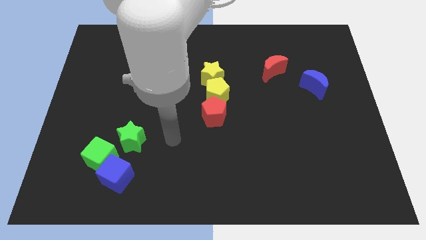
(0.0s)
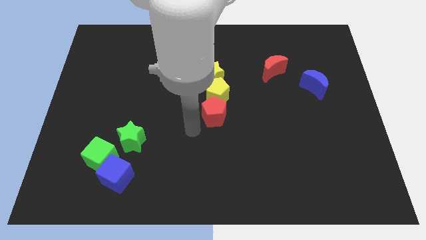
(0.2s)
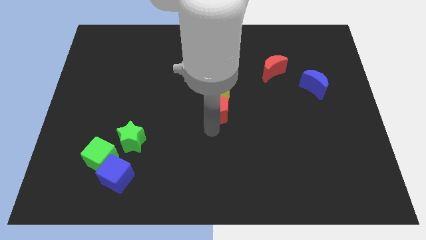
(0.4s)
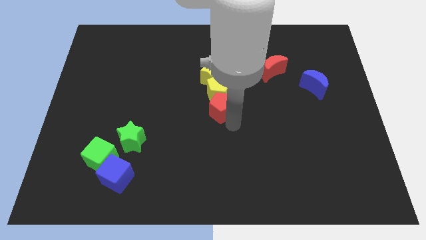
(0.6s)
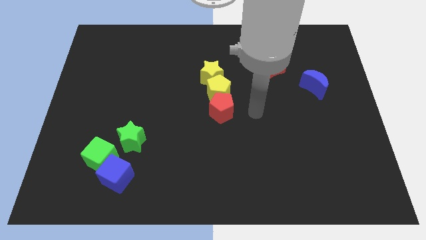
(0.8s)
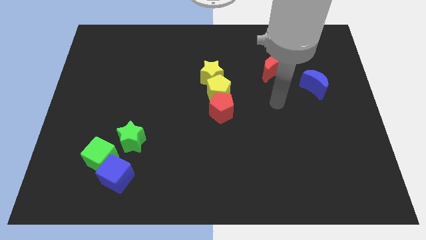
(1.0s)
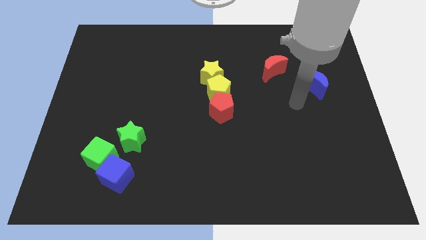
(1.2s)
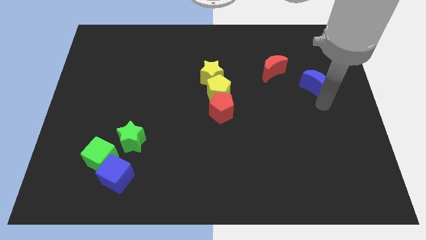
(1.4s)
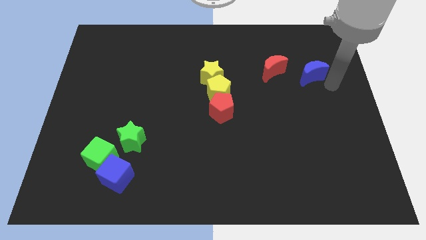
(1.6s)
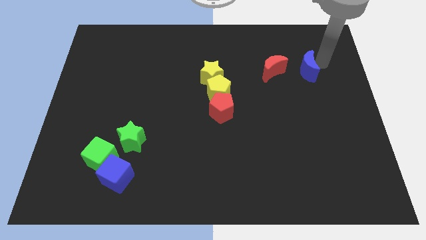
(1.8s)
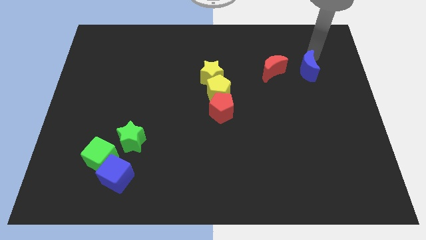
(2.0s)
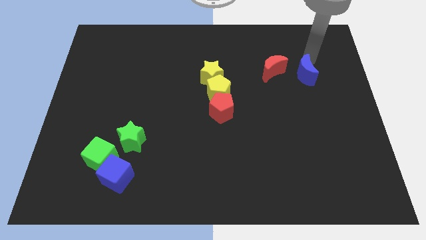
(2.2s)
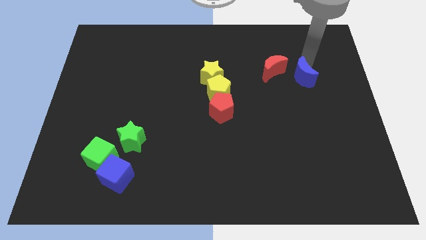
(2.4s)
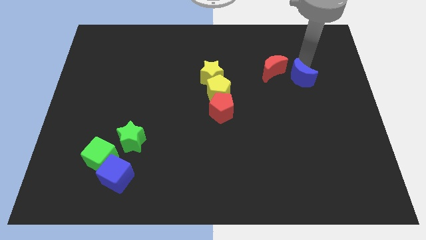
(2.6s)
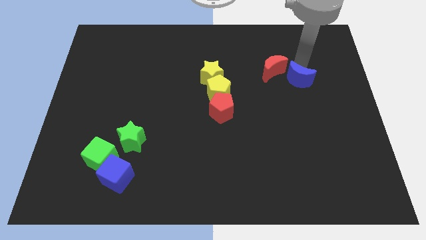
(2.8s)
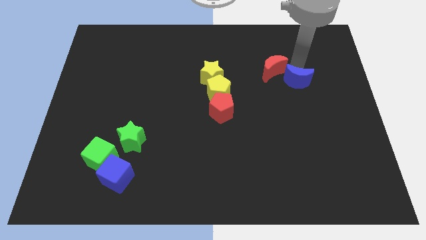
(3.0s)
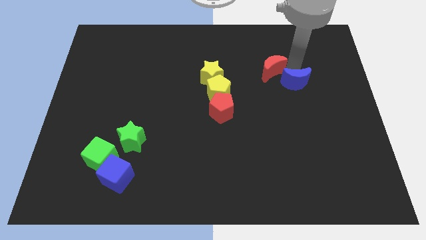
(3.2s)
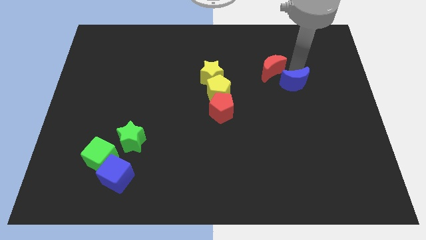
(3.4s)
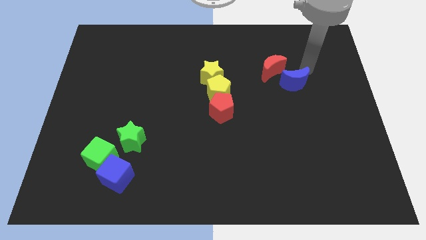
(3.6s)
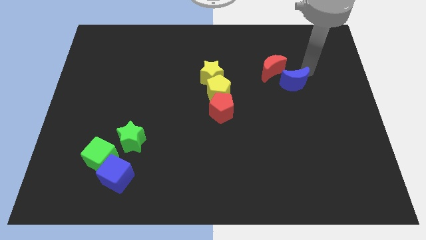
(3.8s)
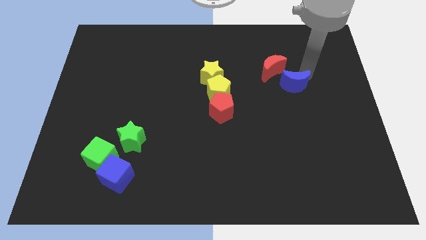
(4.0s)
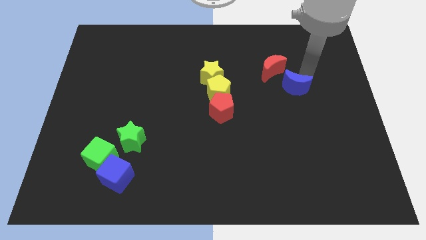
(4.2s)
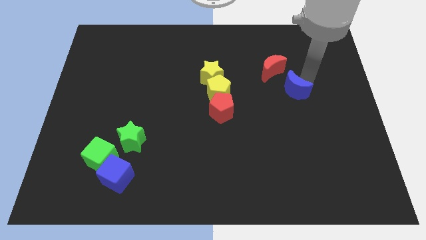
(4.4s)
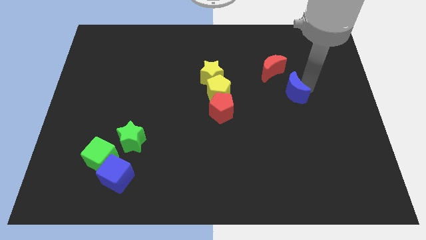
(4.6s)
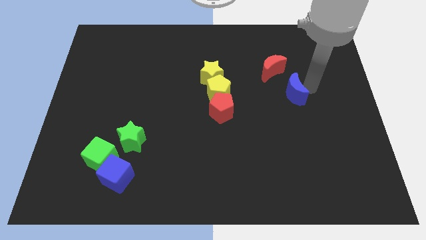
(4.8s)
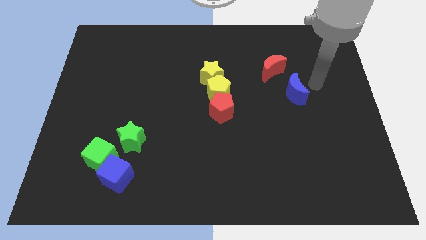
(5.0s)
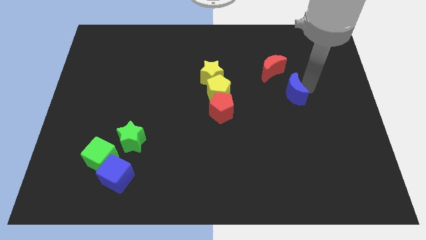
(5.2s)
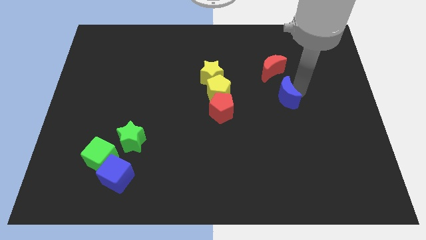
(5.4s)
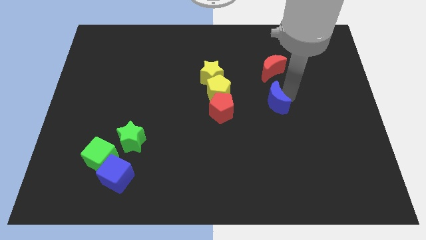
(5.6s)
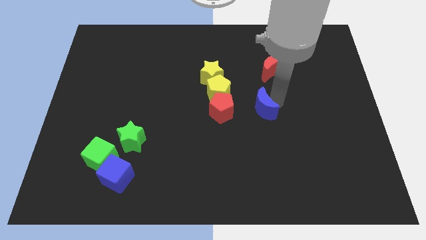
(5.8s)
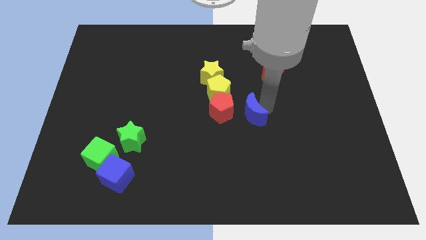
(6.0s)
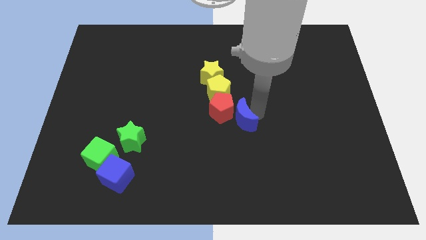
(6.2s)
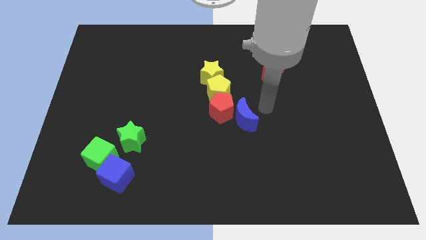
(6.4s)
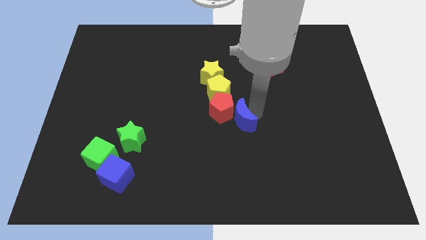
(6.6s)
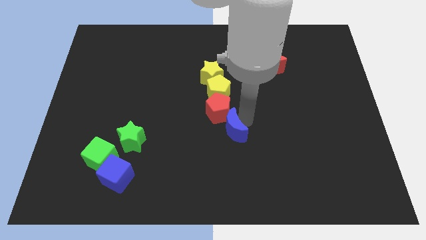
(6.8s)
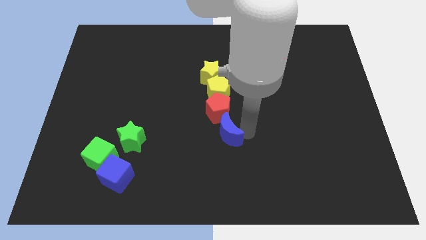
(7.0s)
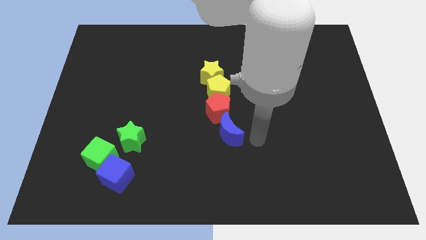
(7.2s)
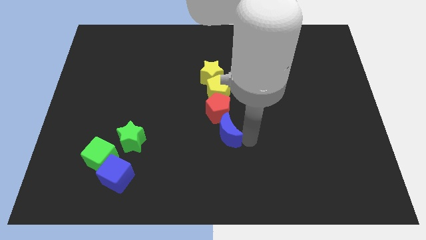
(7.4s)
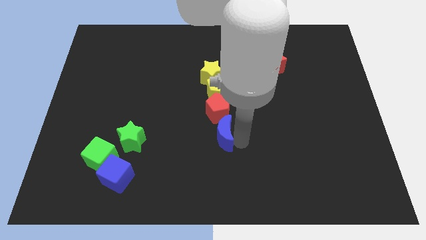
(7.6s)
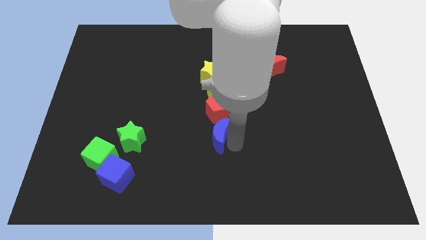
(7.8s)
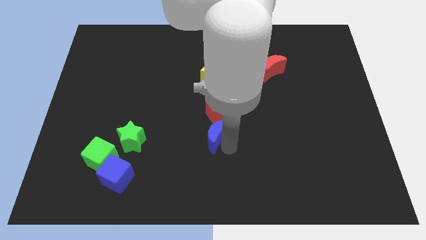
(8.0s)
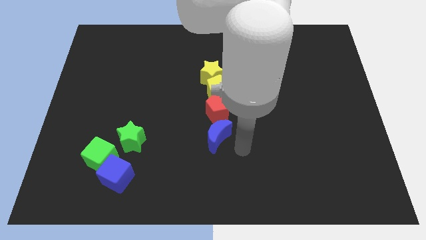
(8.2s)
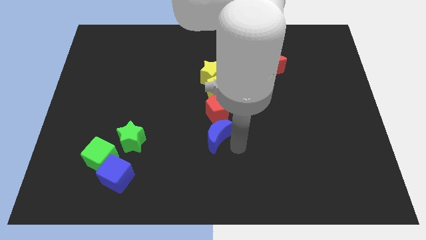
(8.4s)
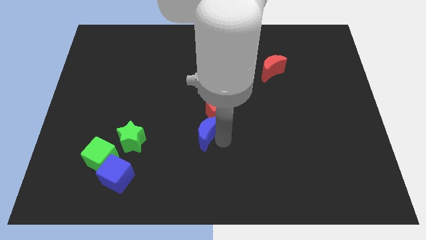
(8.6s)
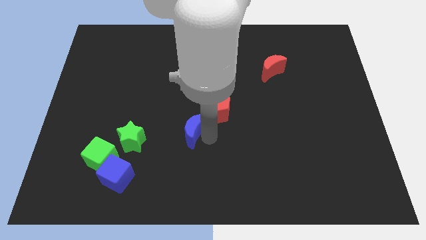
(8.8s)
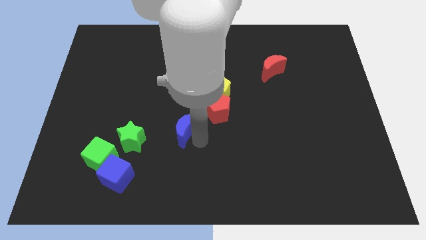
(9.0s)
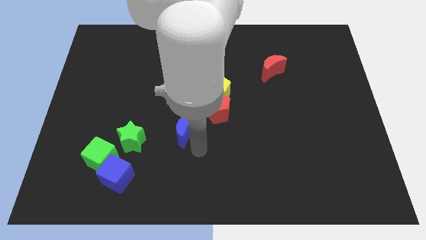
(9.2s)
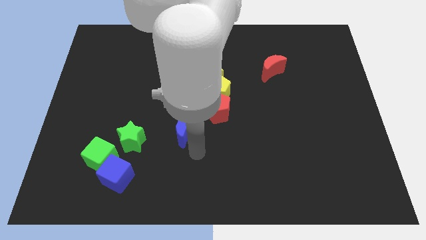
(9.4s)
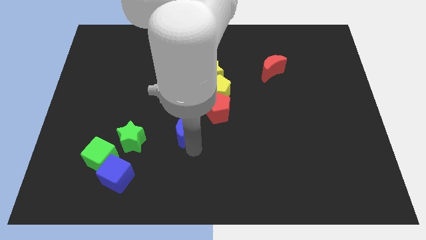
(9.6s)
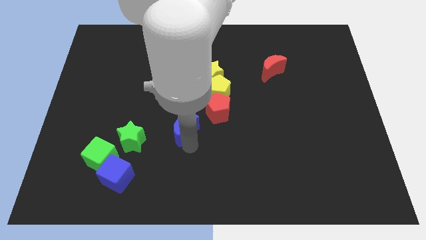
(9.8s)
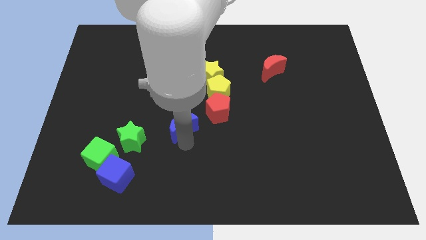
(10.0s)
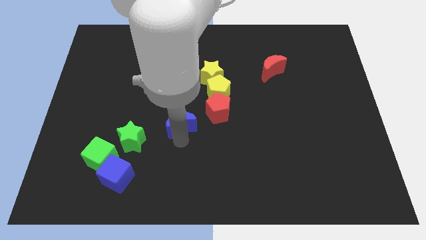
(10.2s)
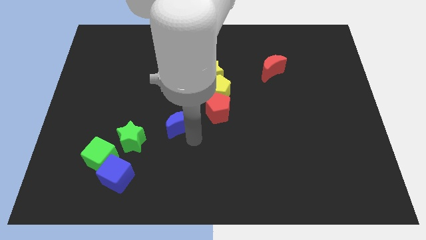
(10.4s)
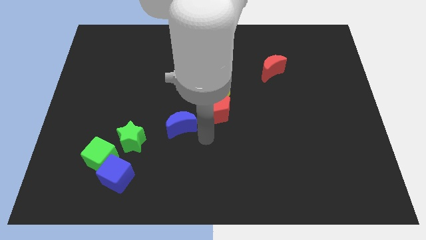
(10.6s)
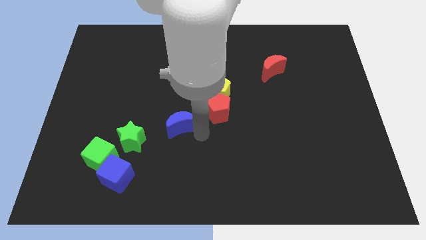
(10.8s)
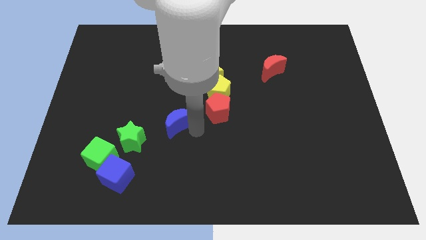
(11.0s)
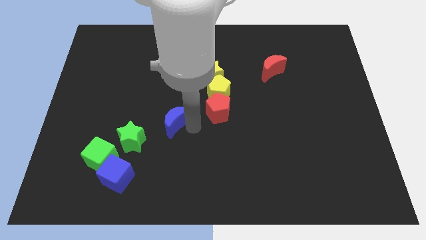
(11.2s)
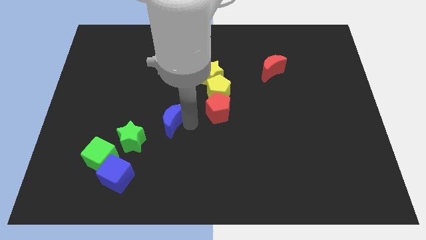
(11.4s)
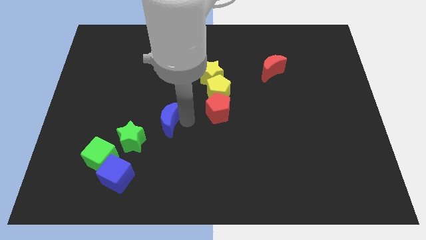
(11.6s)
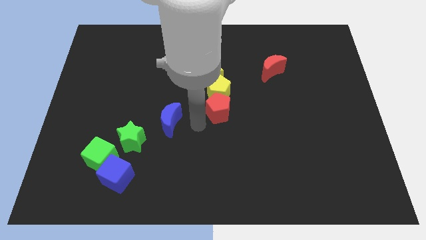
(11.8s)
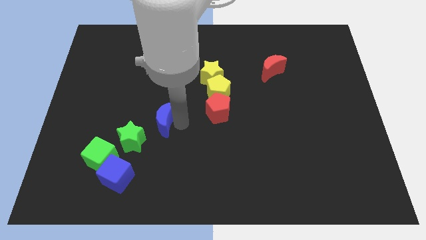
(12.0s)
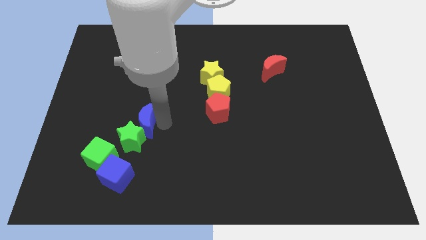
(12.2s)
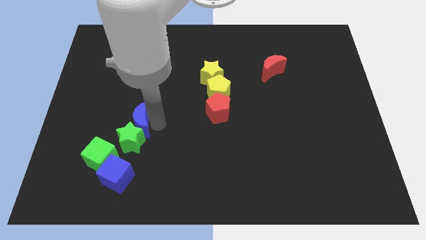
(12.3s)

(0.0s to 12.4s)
slide the blue moon to the top left of the green star

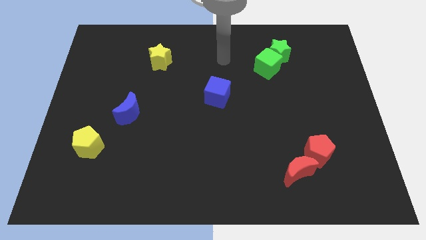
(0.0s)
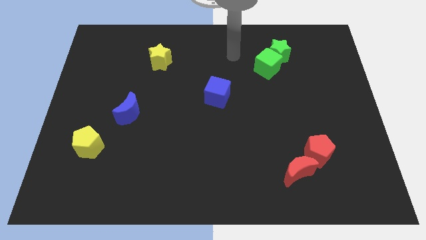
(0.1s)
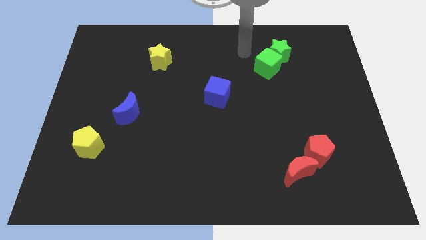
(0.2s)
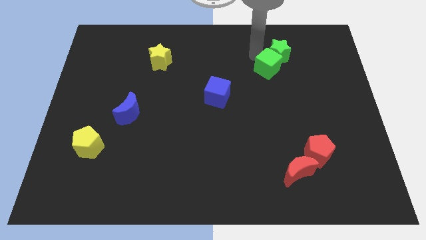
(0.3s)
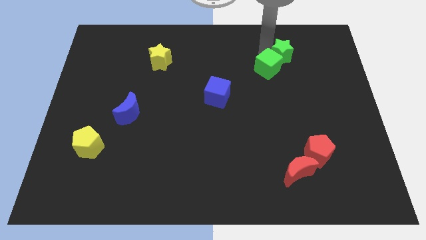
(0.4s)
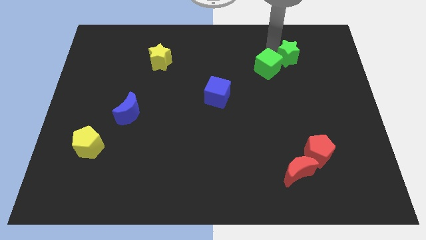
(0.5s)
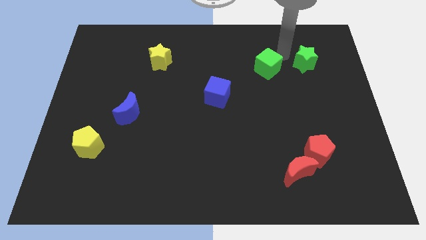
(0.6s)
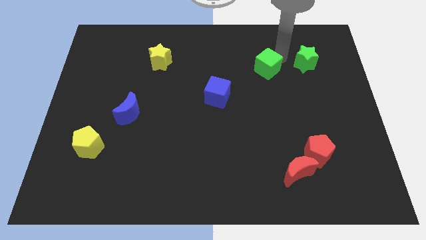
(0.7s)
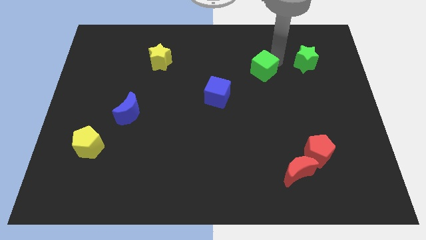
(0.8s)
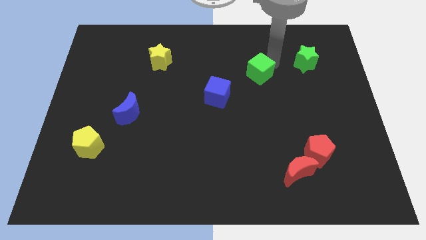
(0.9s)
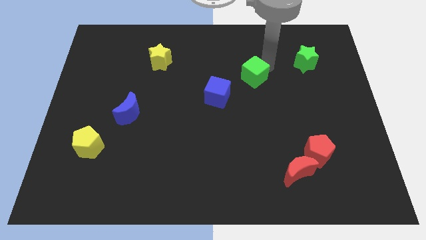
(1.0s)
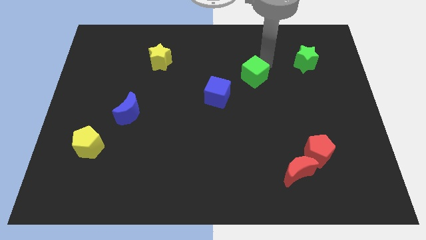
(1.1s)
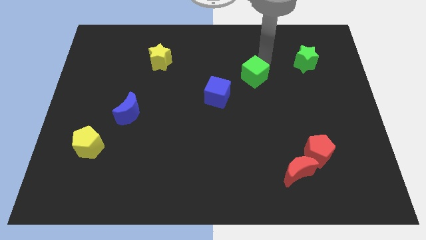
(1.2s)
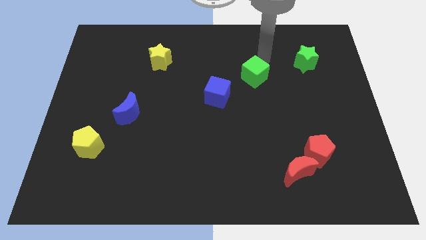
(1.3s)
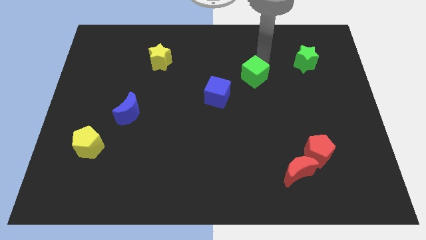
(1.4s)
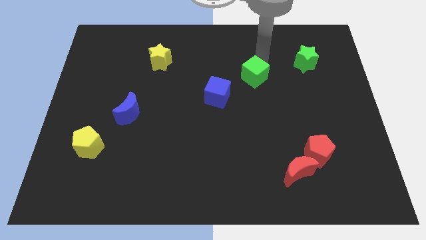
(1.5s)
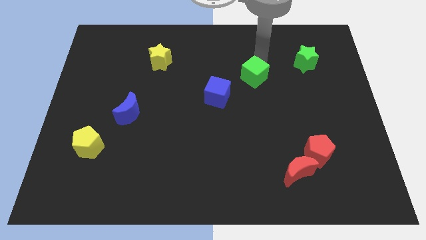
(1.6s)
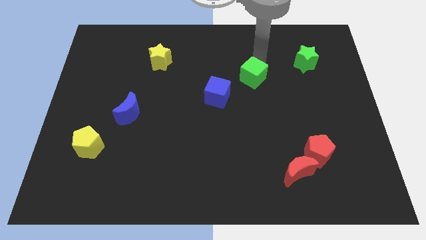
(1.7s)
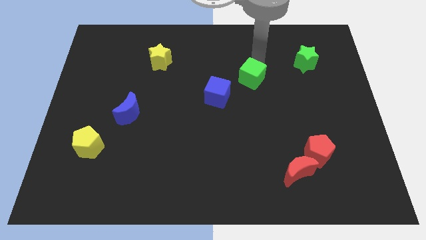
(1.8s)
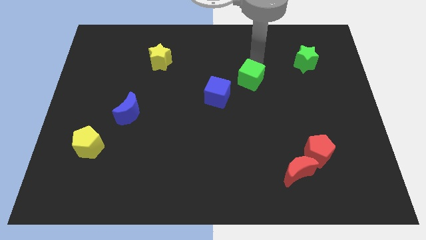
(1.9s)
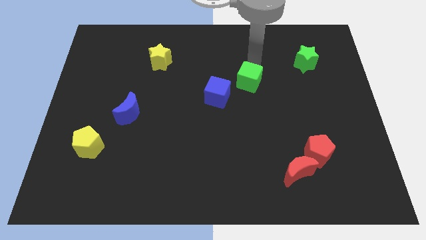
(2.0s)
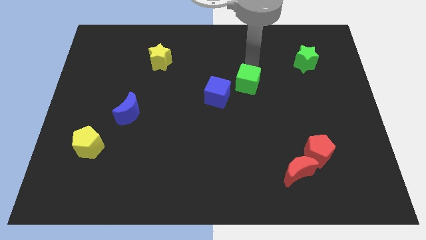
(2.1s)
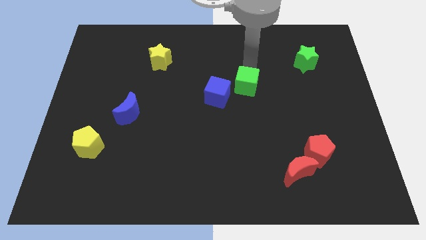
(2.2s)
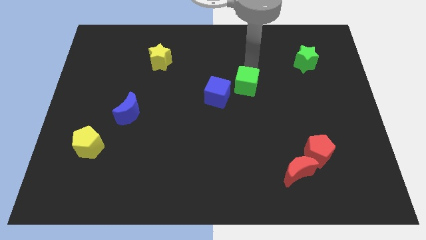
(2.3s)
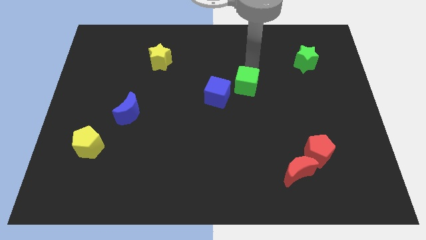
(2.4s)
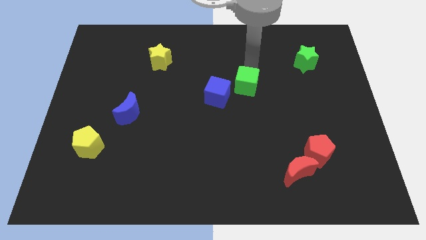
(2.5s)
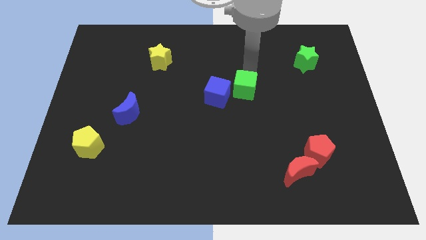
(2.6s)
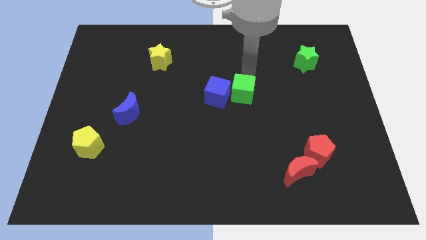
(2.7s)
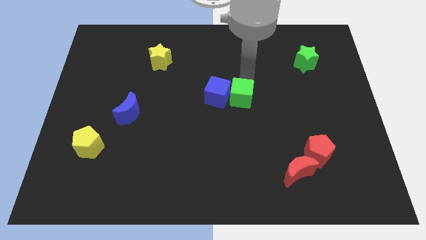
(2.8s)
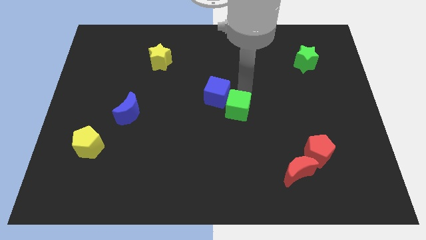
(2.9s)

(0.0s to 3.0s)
push the green cube to the bottom of the blue cube
